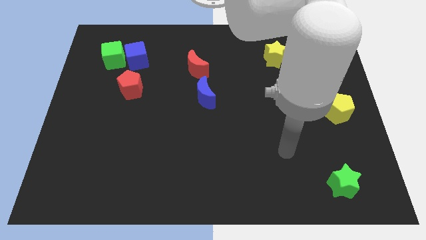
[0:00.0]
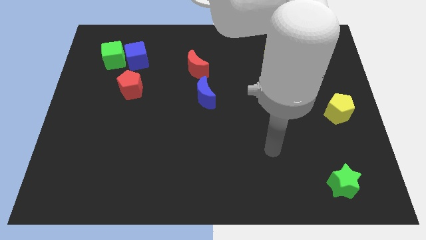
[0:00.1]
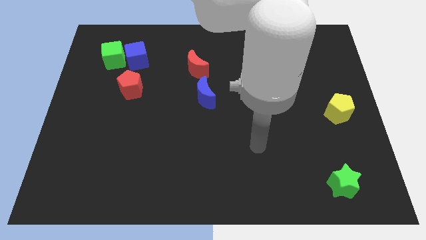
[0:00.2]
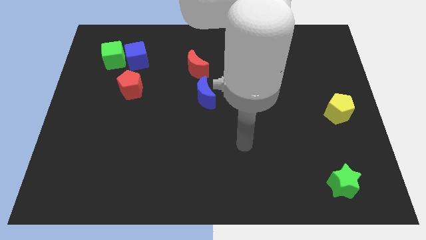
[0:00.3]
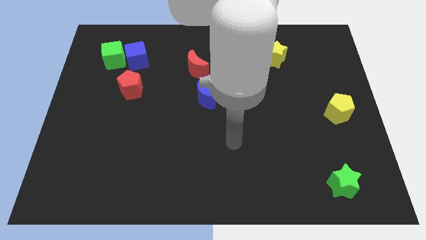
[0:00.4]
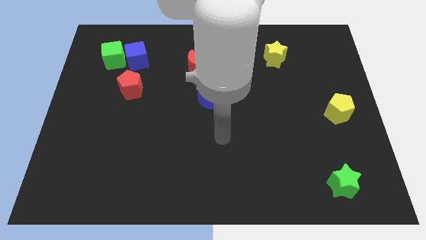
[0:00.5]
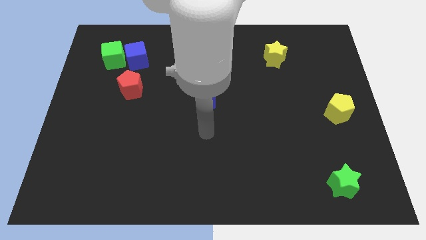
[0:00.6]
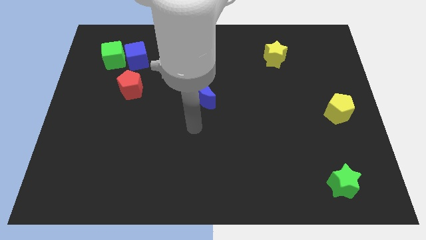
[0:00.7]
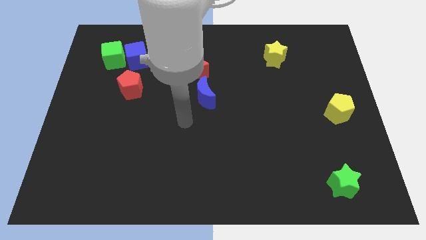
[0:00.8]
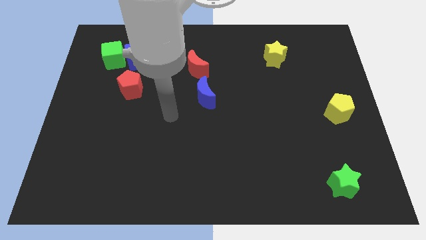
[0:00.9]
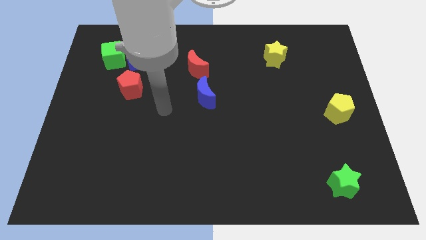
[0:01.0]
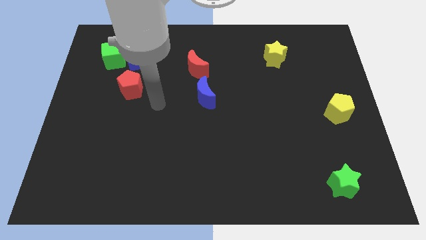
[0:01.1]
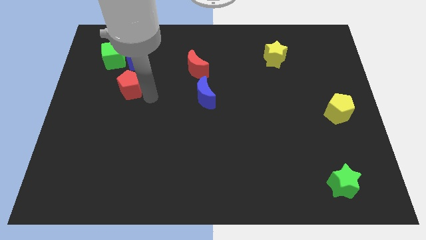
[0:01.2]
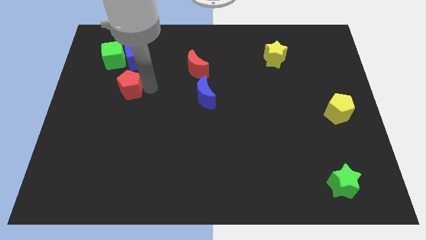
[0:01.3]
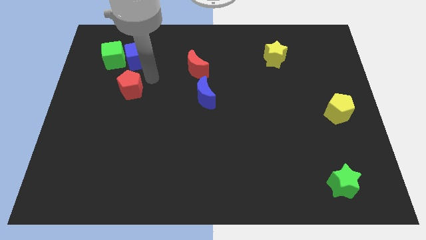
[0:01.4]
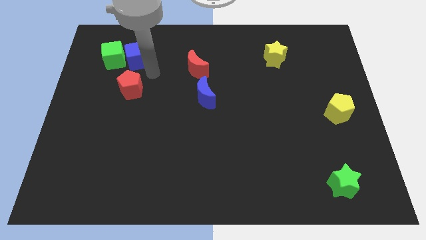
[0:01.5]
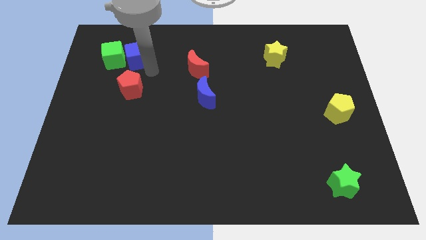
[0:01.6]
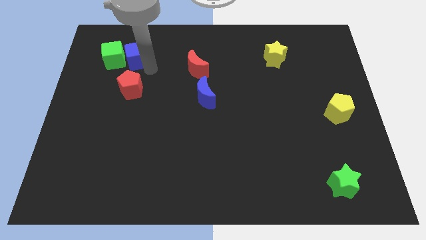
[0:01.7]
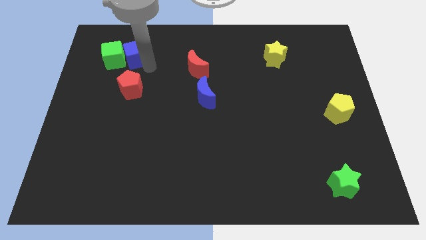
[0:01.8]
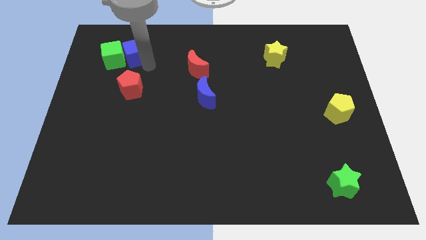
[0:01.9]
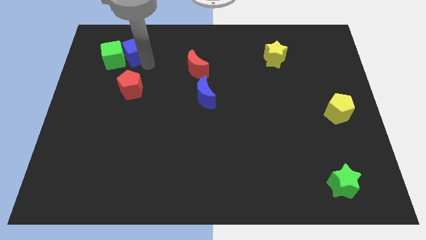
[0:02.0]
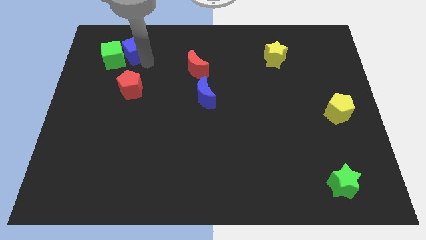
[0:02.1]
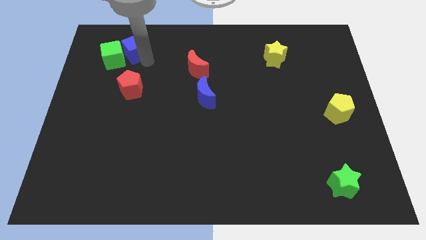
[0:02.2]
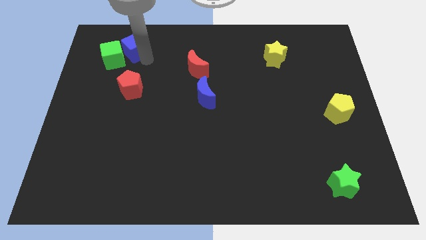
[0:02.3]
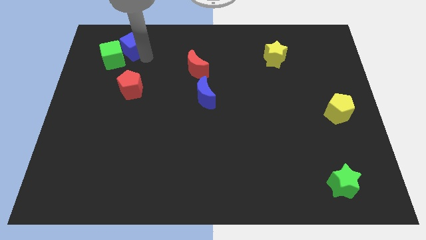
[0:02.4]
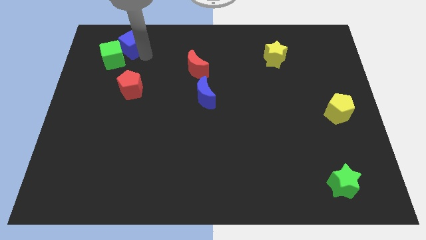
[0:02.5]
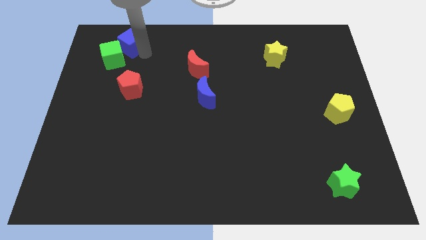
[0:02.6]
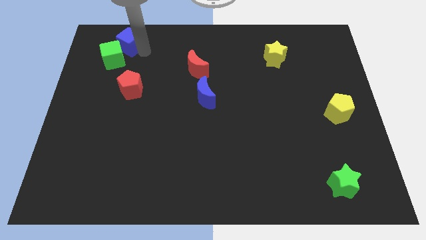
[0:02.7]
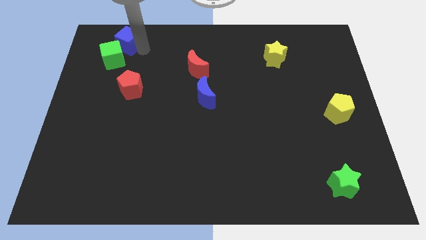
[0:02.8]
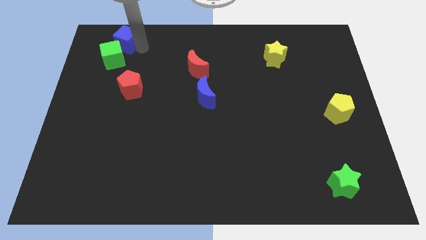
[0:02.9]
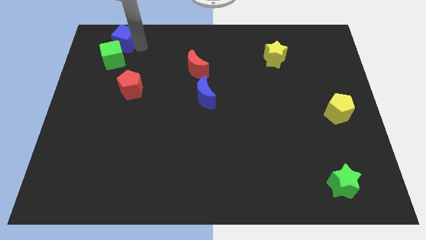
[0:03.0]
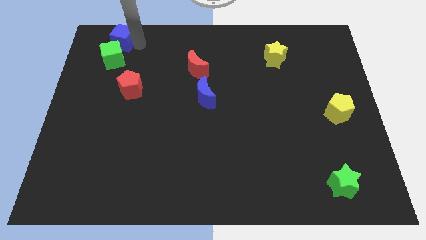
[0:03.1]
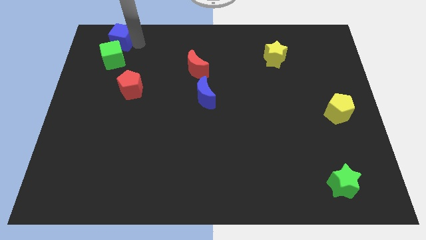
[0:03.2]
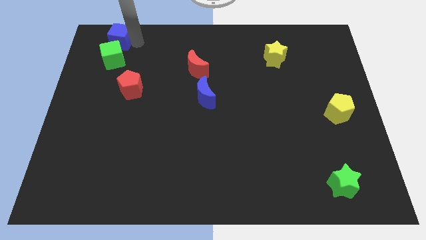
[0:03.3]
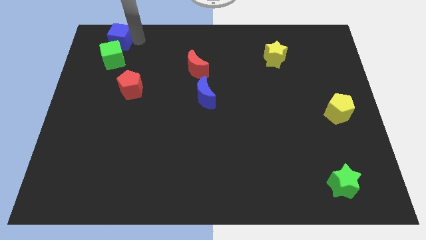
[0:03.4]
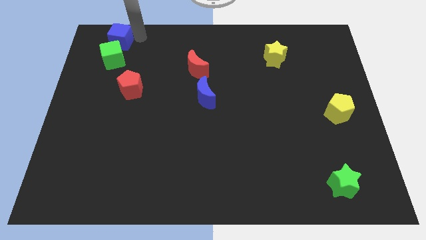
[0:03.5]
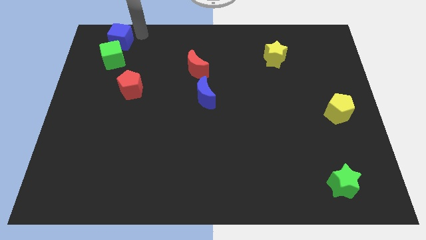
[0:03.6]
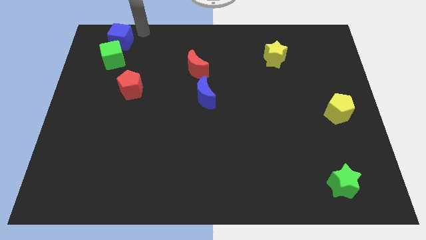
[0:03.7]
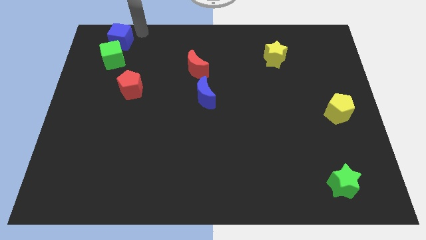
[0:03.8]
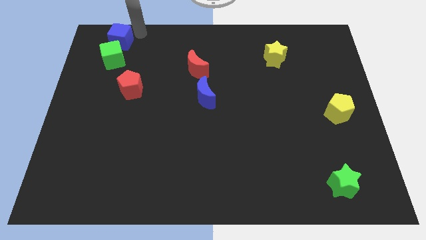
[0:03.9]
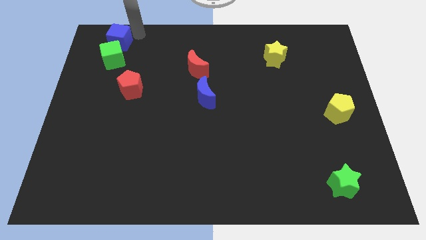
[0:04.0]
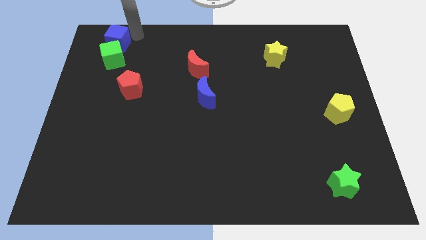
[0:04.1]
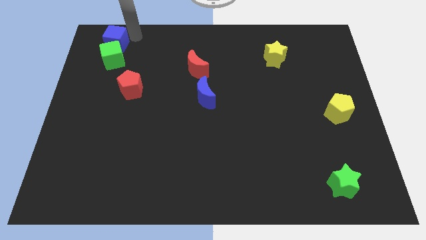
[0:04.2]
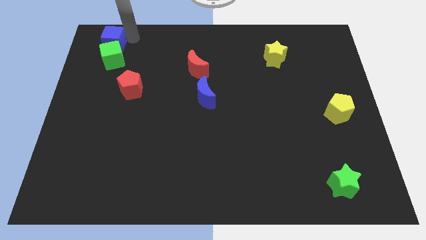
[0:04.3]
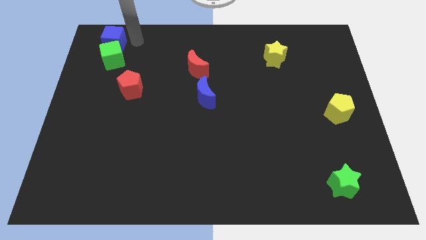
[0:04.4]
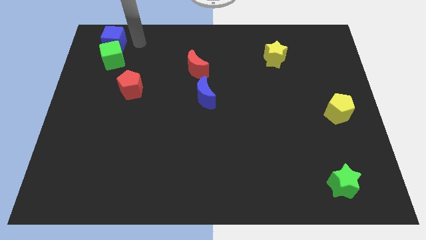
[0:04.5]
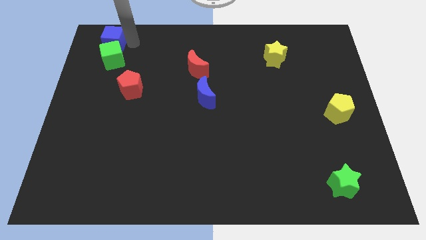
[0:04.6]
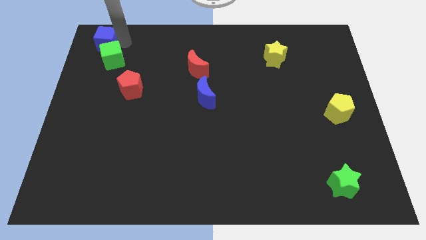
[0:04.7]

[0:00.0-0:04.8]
put the blue cube to the top left corner

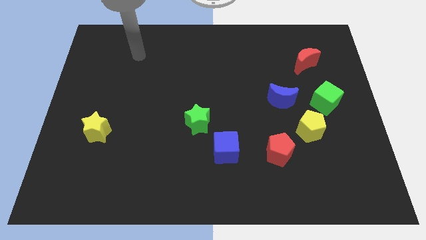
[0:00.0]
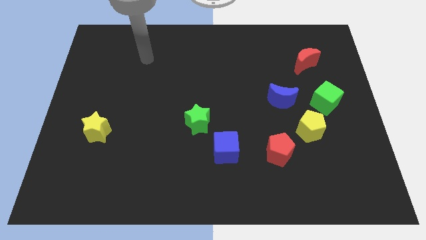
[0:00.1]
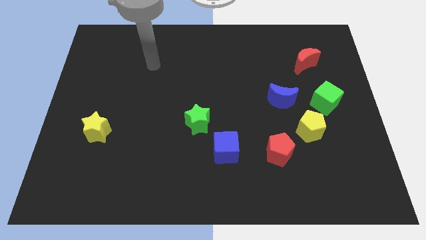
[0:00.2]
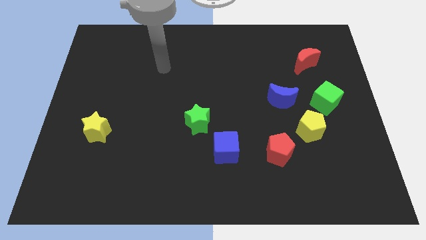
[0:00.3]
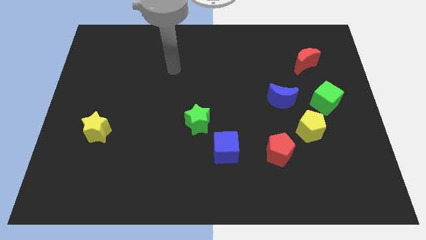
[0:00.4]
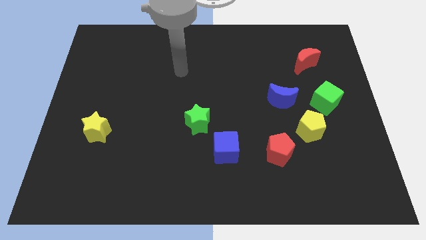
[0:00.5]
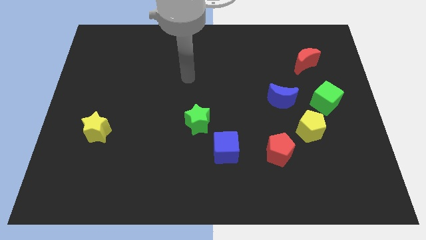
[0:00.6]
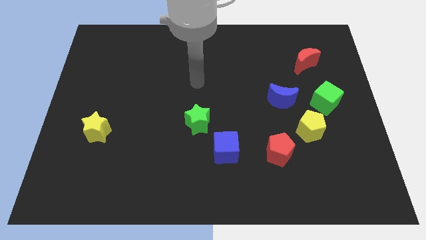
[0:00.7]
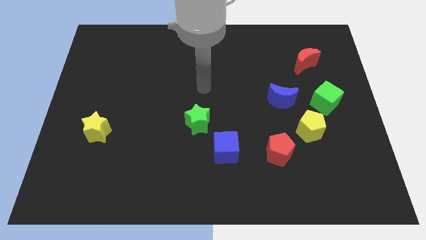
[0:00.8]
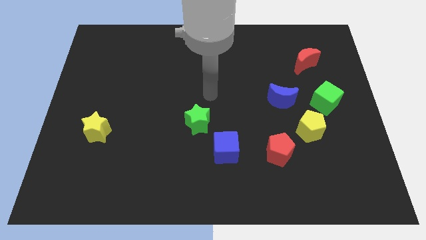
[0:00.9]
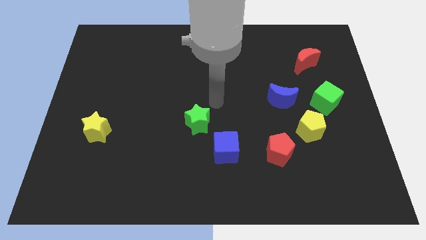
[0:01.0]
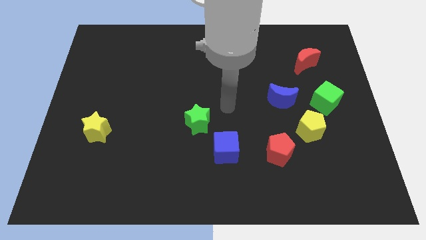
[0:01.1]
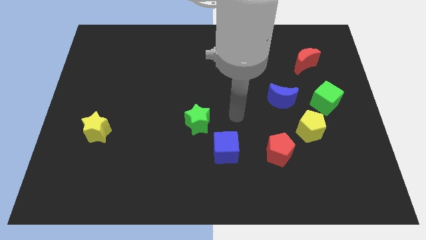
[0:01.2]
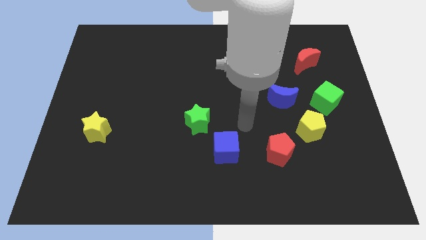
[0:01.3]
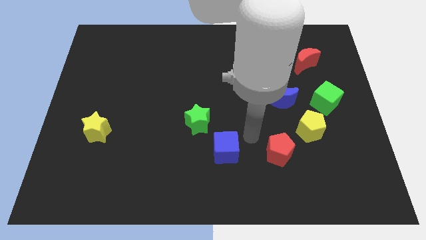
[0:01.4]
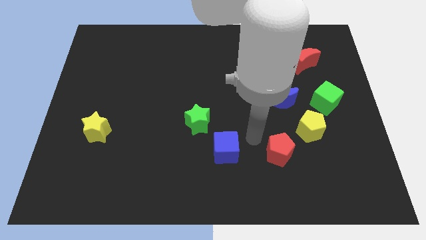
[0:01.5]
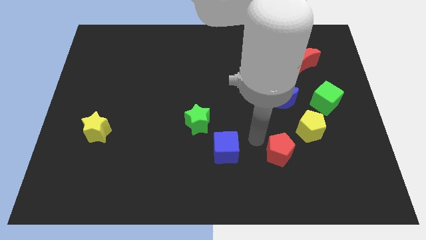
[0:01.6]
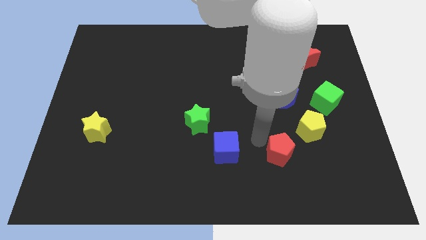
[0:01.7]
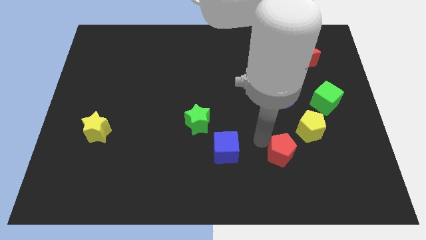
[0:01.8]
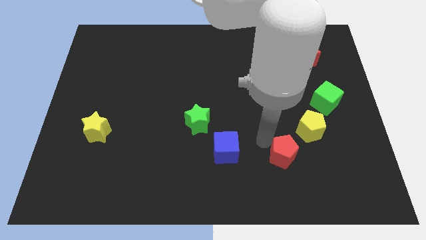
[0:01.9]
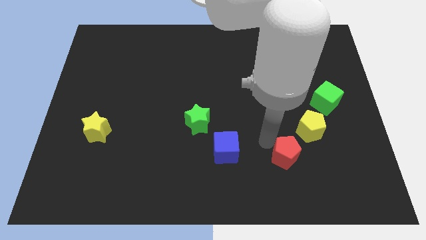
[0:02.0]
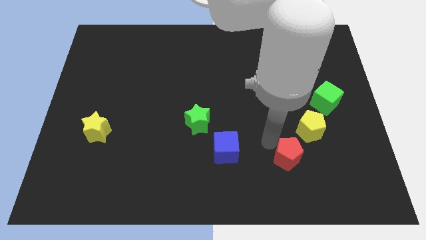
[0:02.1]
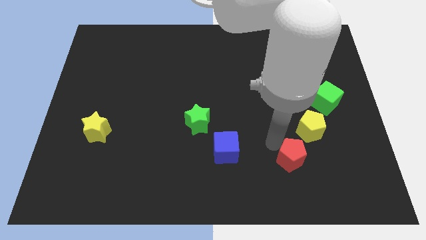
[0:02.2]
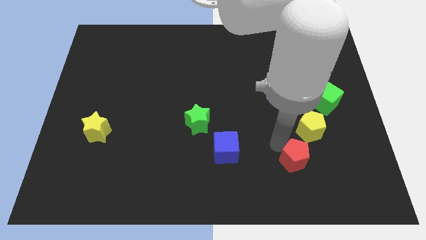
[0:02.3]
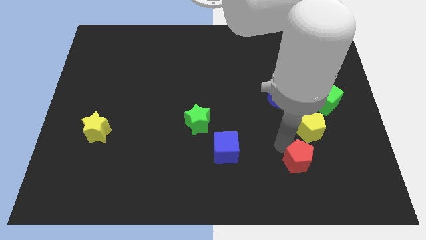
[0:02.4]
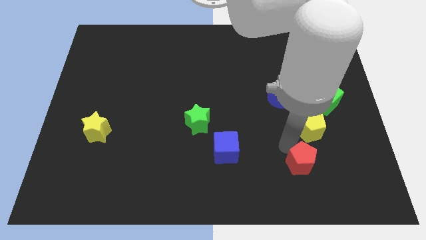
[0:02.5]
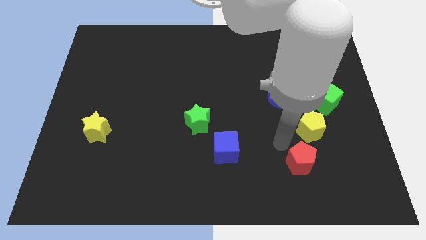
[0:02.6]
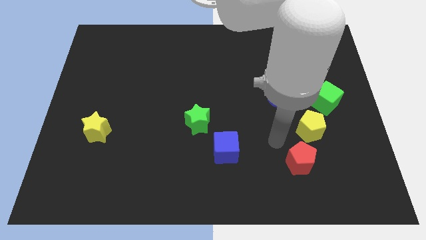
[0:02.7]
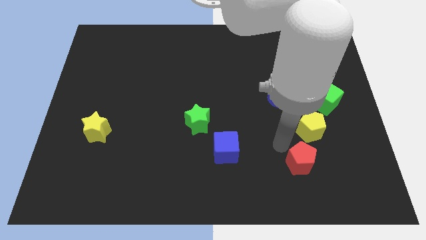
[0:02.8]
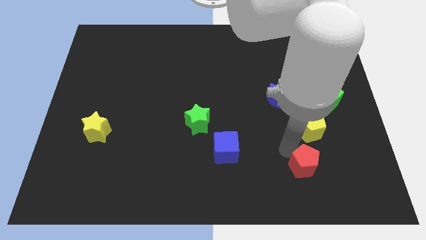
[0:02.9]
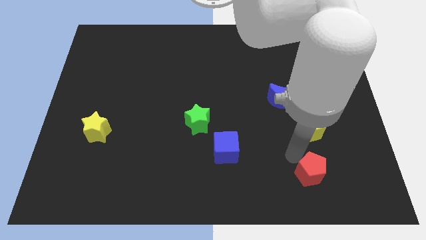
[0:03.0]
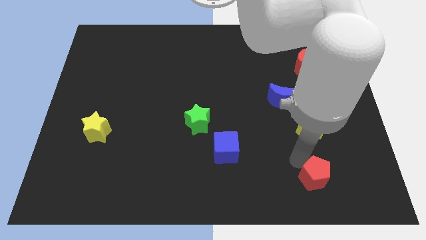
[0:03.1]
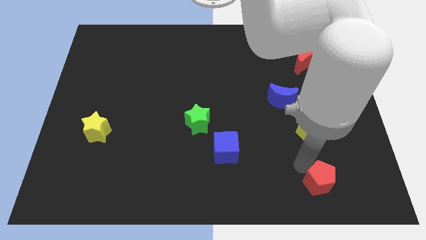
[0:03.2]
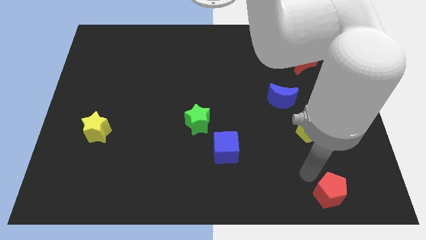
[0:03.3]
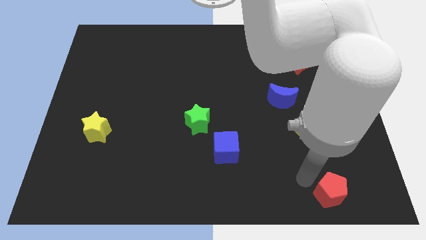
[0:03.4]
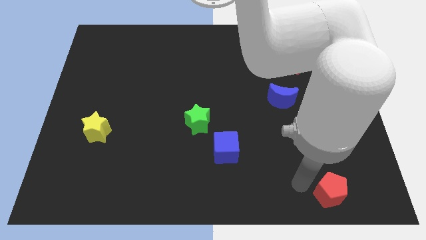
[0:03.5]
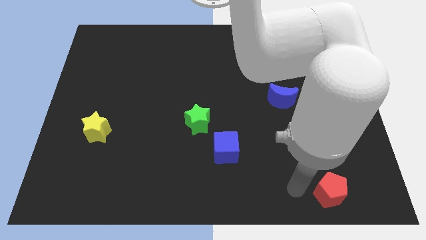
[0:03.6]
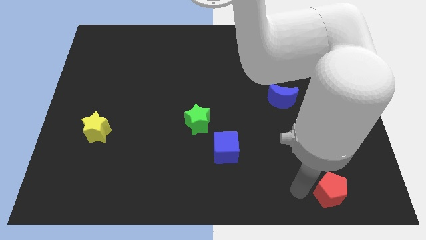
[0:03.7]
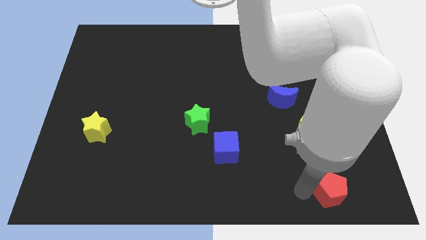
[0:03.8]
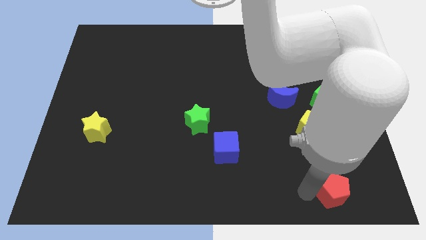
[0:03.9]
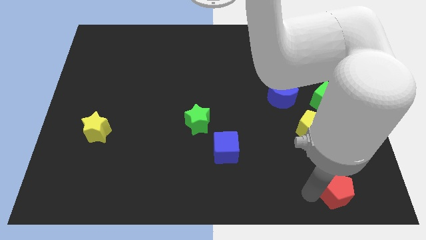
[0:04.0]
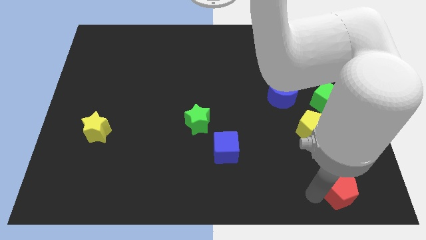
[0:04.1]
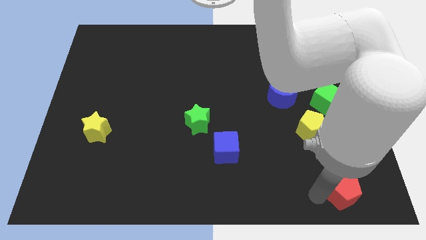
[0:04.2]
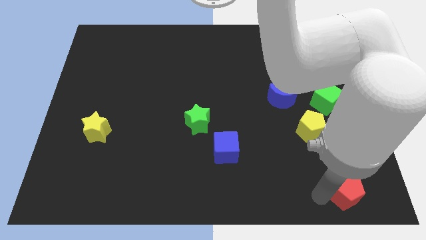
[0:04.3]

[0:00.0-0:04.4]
move the red pentagon to the bottom right
